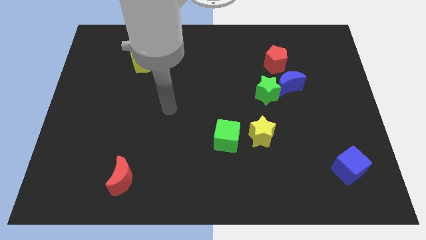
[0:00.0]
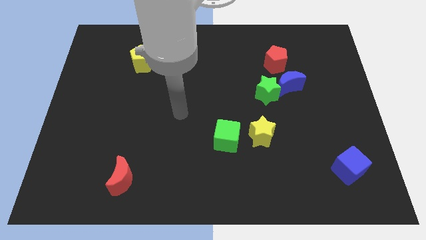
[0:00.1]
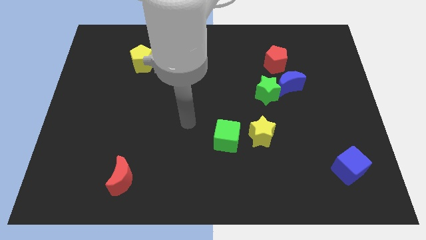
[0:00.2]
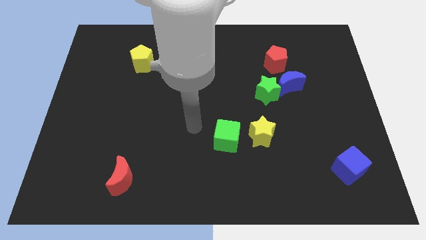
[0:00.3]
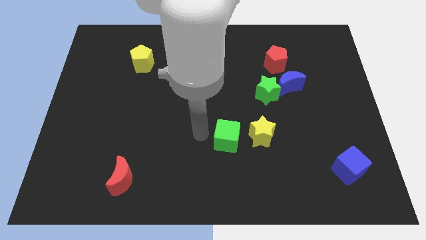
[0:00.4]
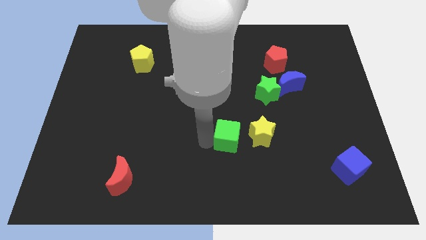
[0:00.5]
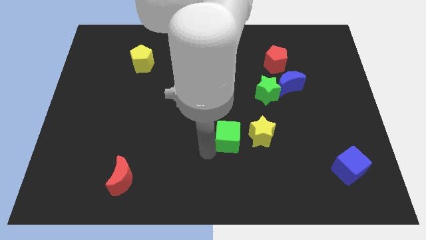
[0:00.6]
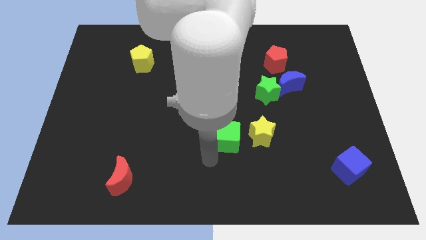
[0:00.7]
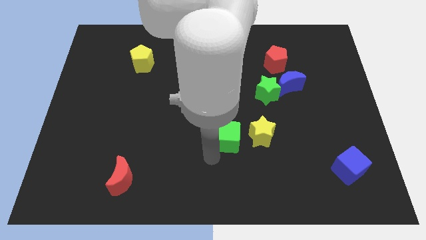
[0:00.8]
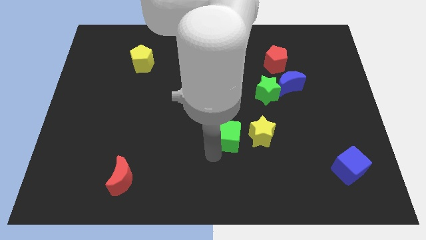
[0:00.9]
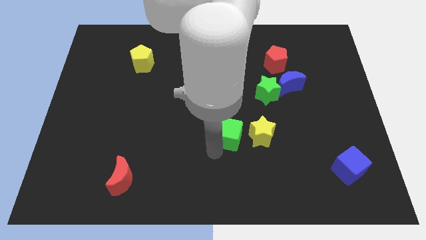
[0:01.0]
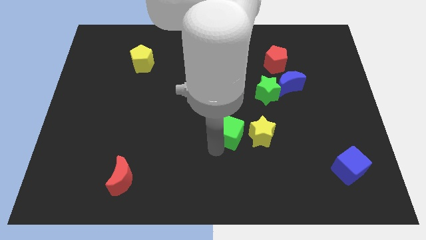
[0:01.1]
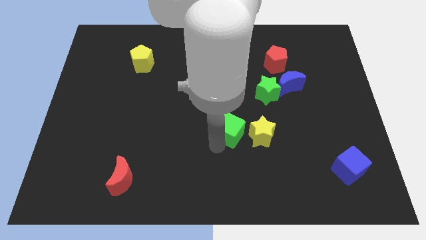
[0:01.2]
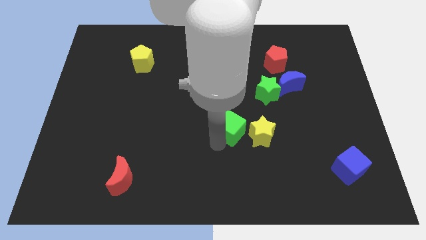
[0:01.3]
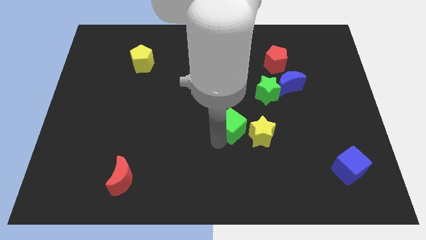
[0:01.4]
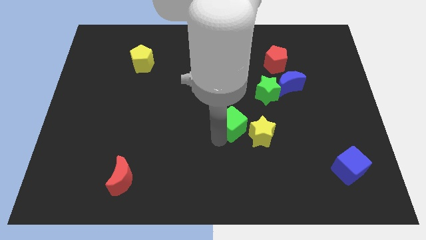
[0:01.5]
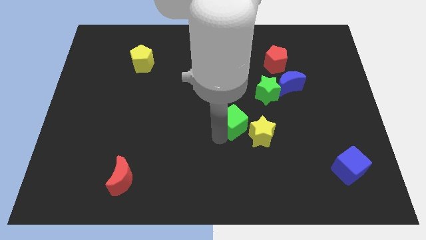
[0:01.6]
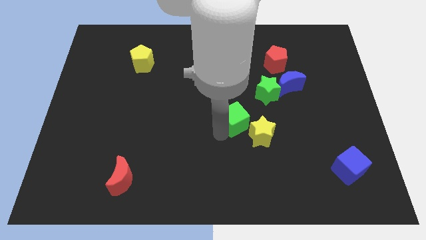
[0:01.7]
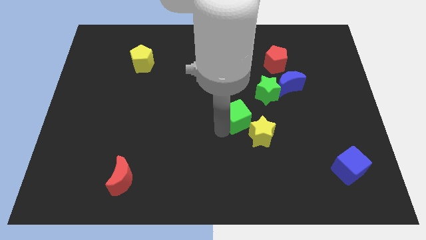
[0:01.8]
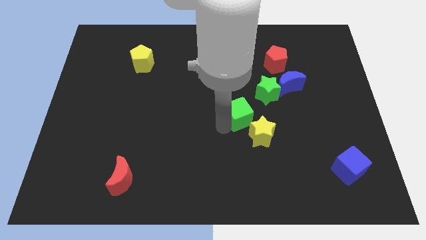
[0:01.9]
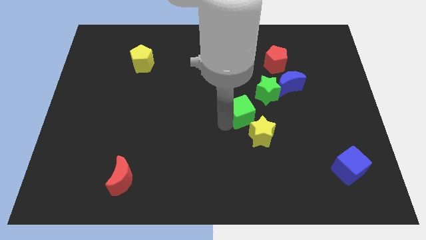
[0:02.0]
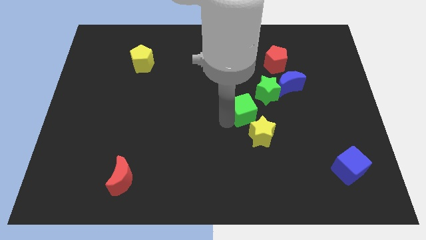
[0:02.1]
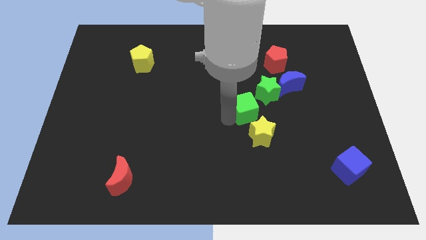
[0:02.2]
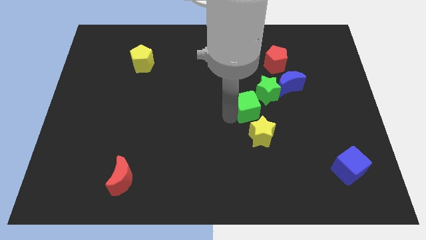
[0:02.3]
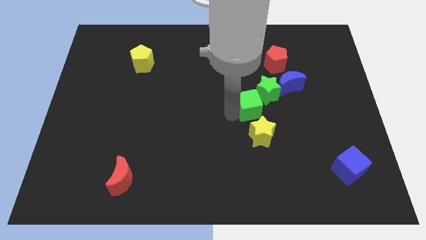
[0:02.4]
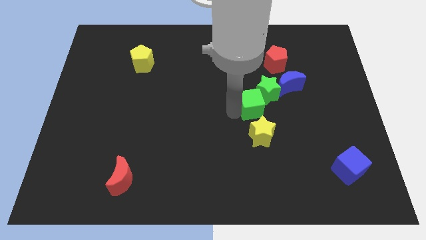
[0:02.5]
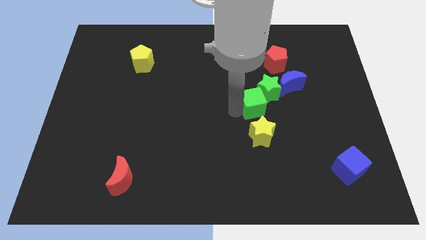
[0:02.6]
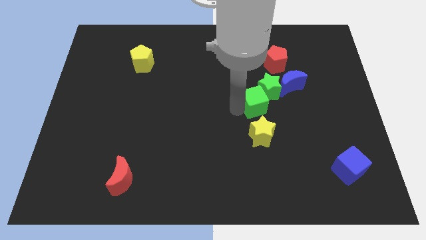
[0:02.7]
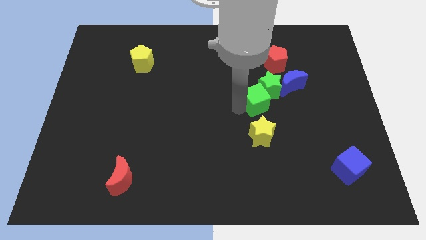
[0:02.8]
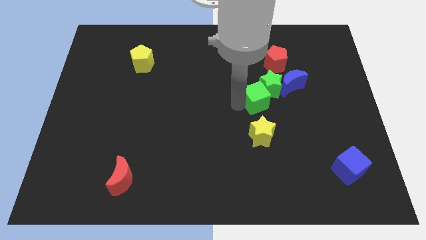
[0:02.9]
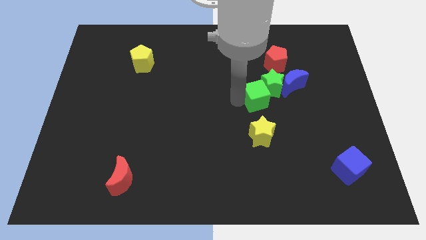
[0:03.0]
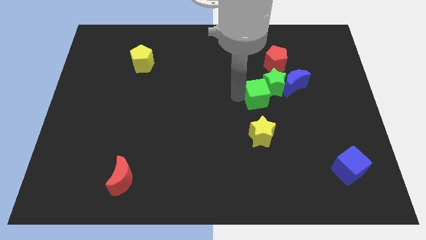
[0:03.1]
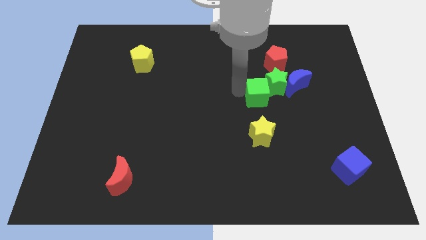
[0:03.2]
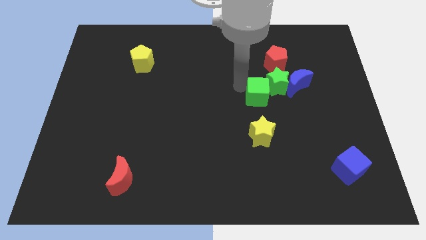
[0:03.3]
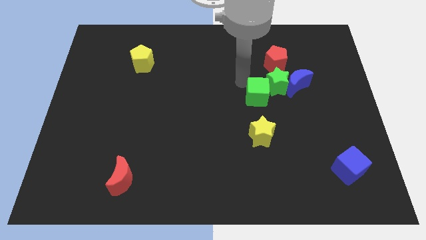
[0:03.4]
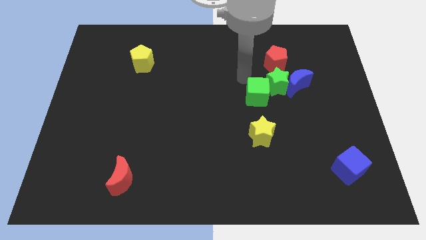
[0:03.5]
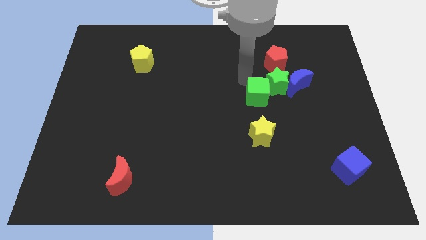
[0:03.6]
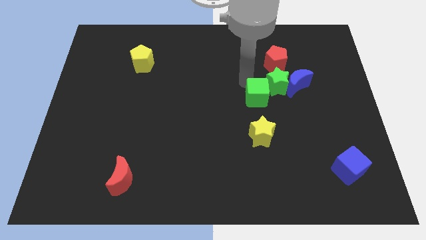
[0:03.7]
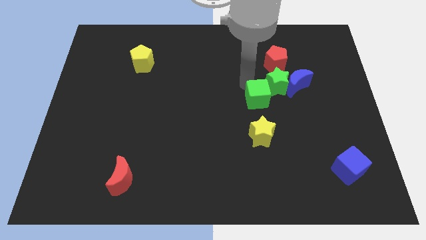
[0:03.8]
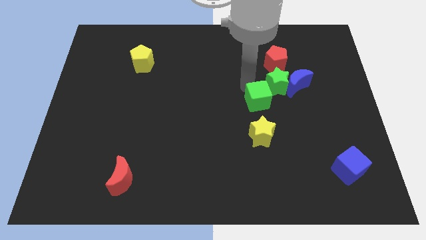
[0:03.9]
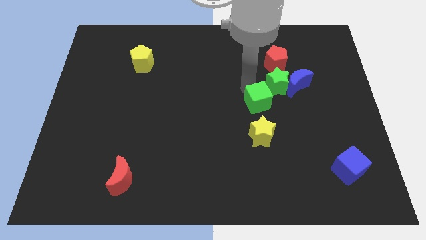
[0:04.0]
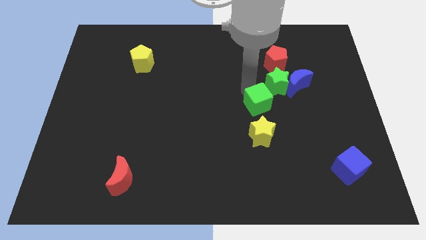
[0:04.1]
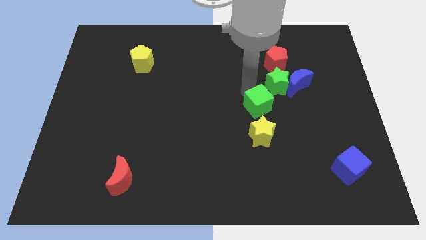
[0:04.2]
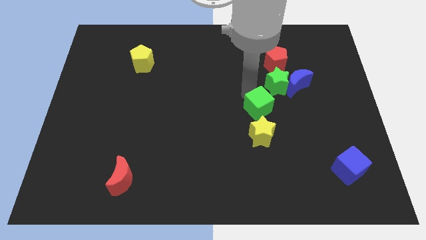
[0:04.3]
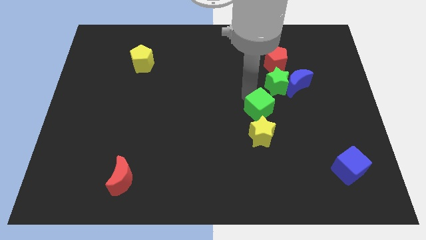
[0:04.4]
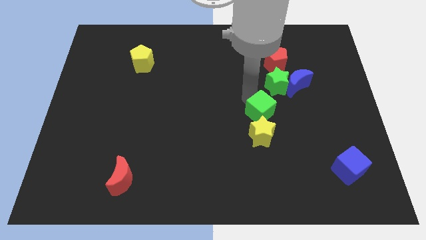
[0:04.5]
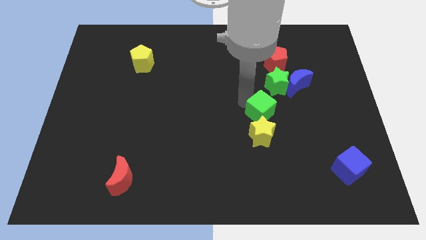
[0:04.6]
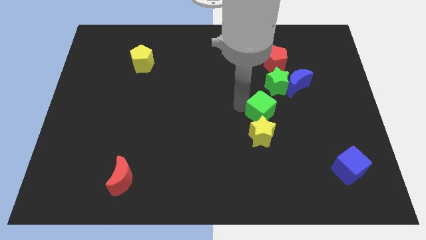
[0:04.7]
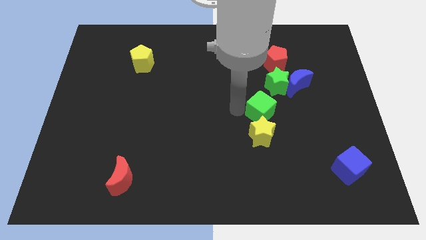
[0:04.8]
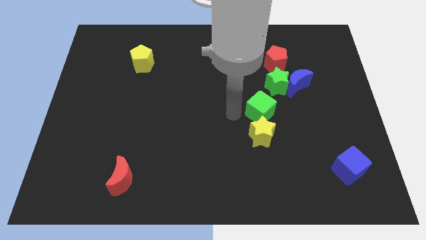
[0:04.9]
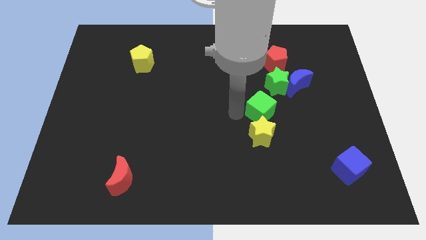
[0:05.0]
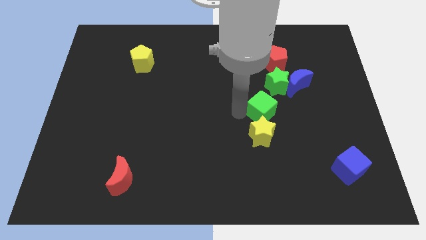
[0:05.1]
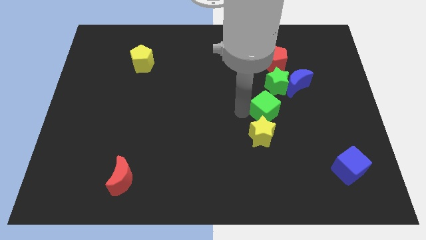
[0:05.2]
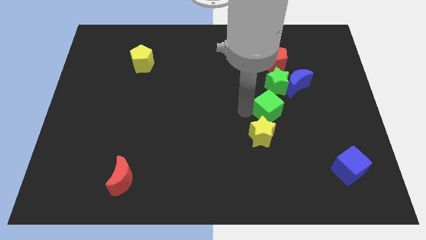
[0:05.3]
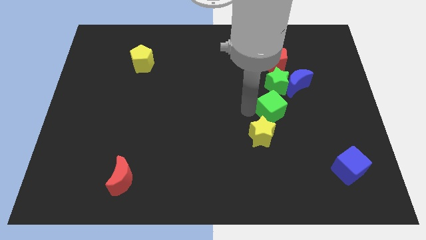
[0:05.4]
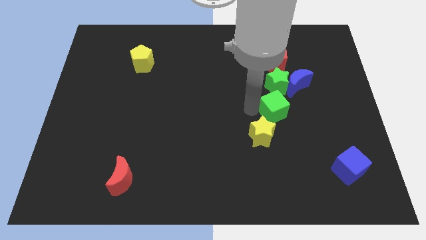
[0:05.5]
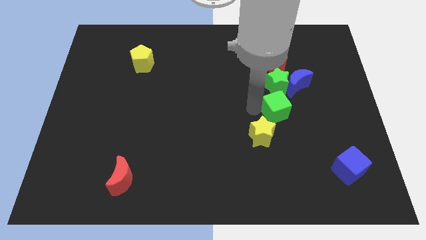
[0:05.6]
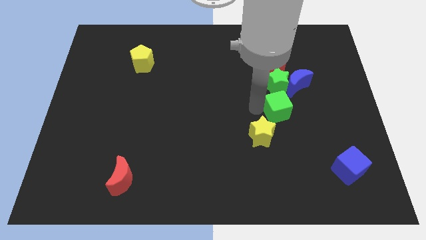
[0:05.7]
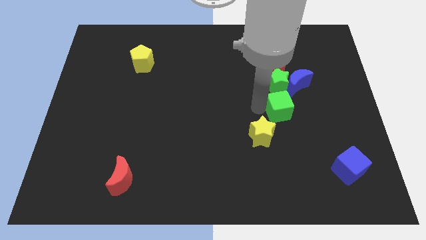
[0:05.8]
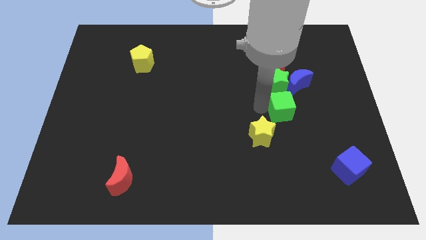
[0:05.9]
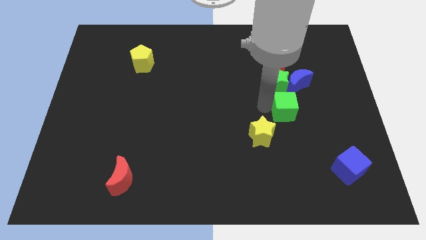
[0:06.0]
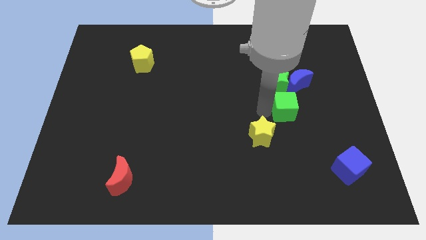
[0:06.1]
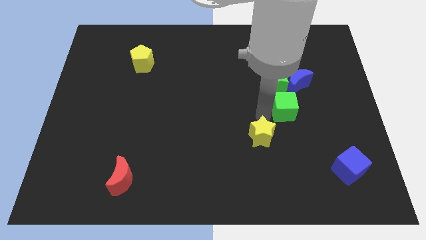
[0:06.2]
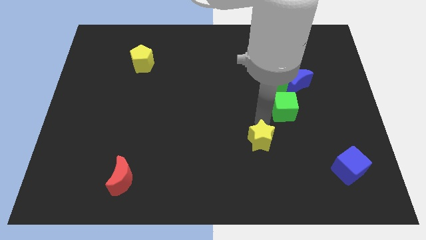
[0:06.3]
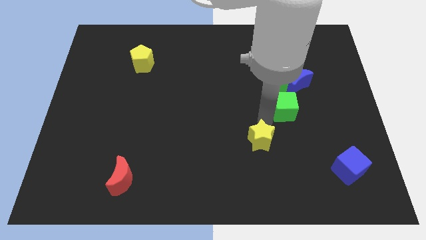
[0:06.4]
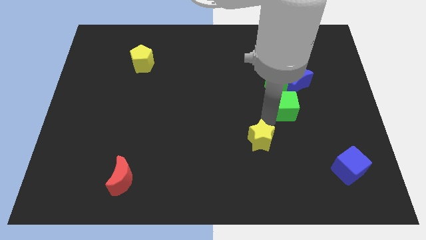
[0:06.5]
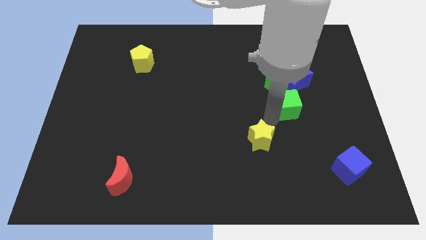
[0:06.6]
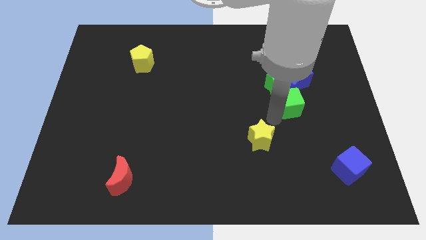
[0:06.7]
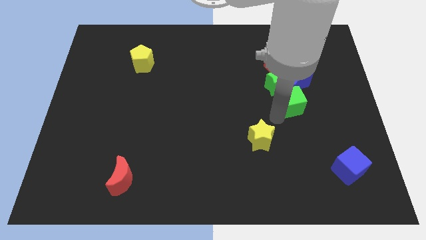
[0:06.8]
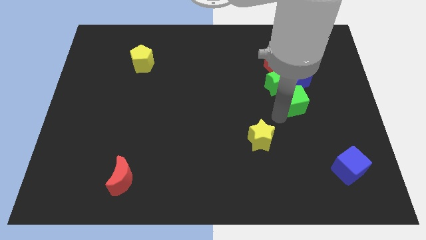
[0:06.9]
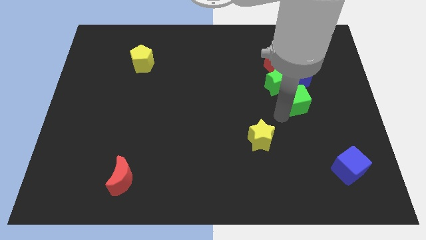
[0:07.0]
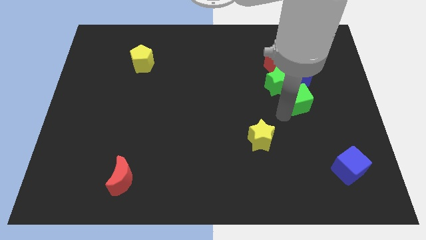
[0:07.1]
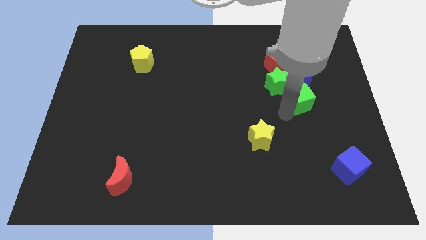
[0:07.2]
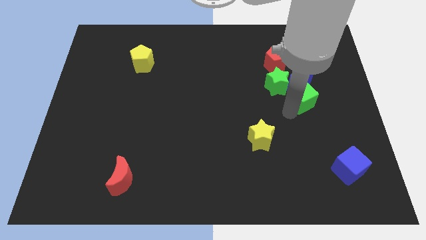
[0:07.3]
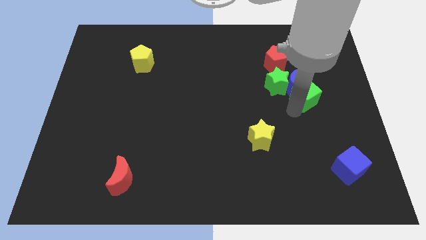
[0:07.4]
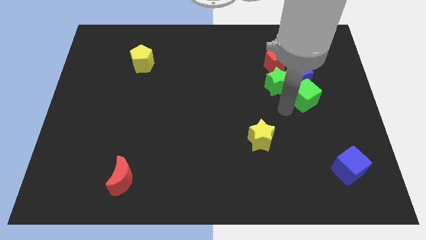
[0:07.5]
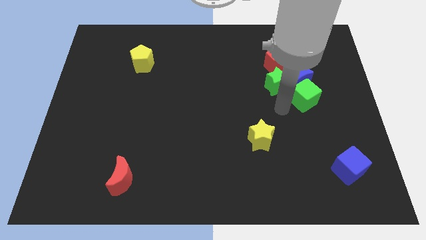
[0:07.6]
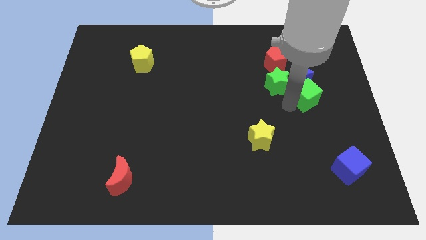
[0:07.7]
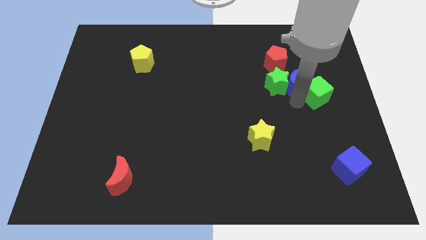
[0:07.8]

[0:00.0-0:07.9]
push the green cube just right of the blue moon
